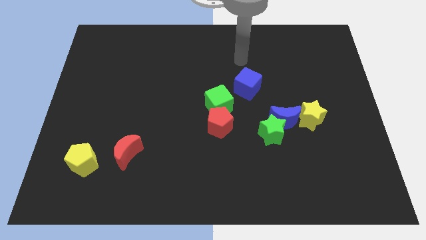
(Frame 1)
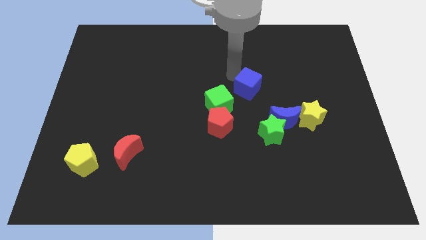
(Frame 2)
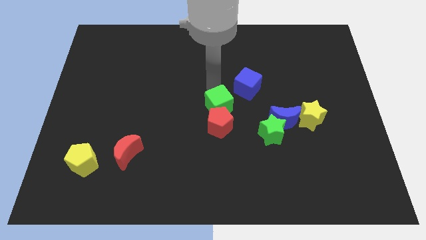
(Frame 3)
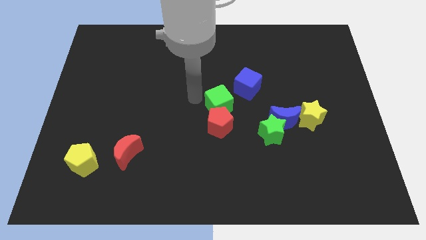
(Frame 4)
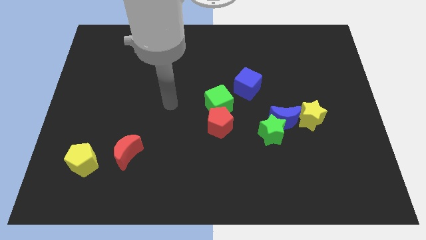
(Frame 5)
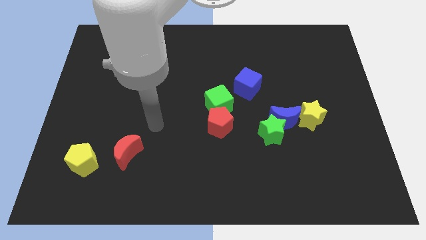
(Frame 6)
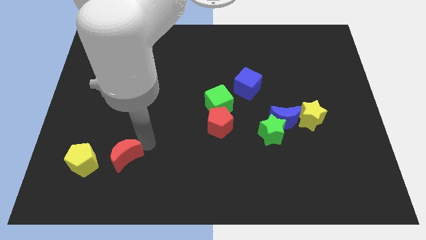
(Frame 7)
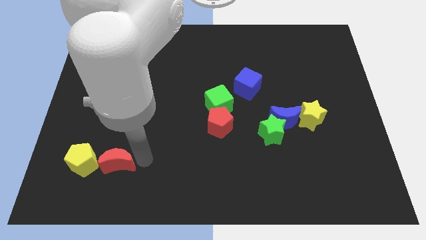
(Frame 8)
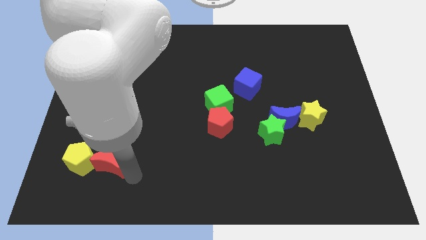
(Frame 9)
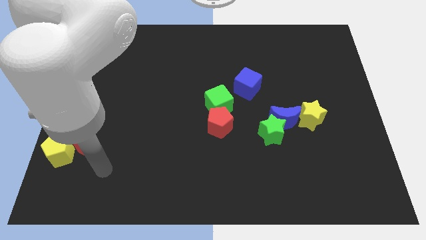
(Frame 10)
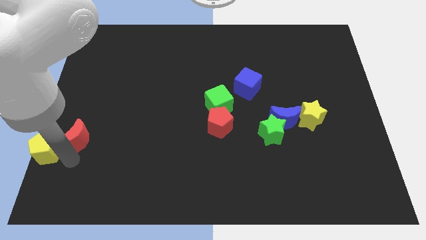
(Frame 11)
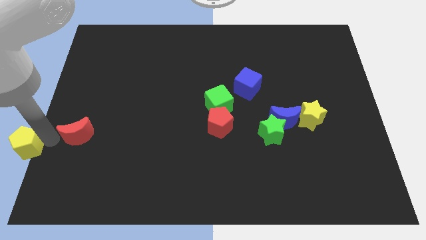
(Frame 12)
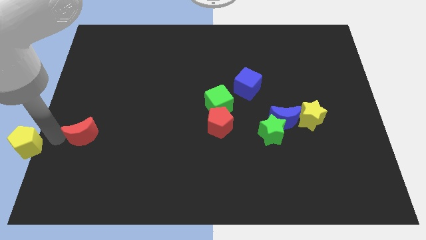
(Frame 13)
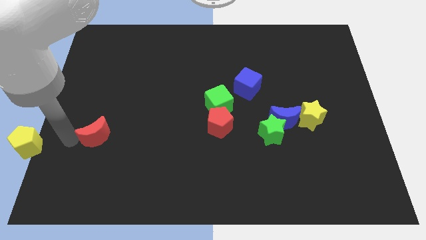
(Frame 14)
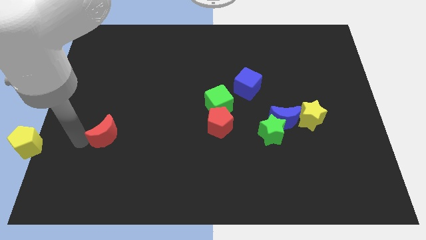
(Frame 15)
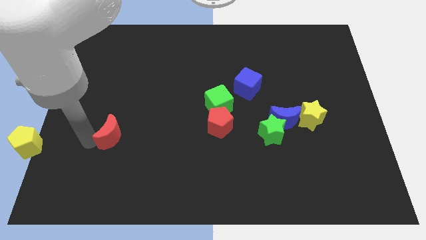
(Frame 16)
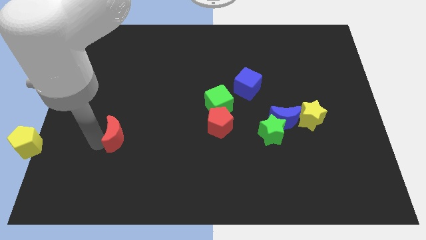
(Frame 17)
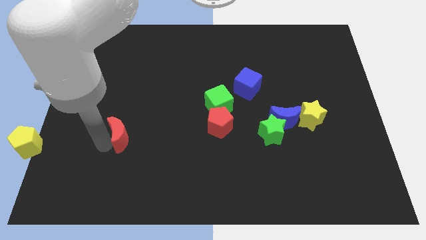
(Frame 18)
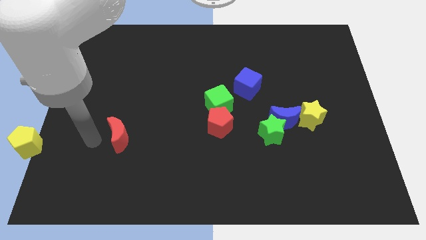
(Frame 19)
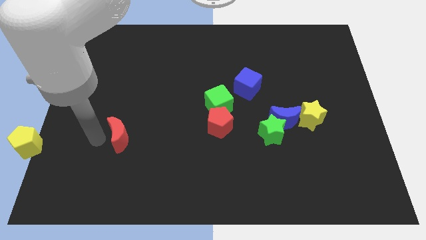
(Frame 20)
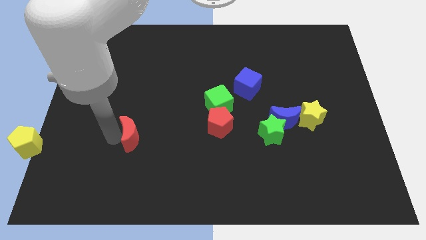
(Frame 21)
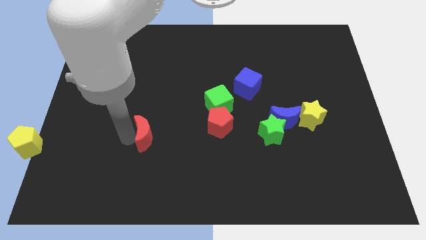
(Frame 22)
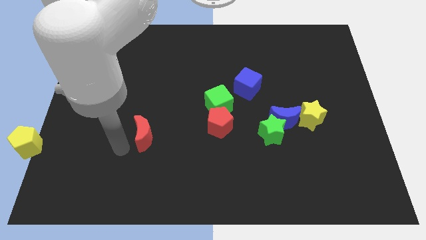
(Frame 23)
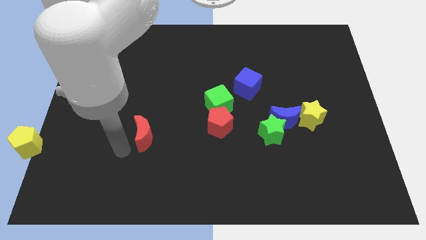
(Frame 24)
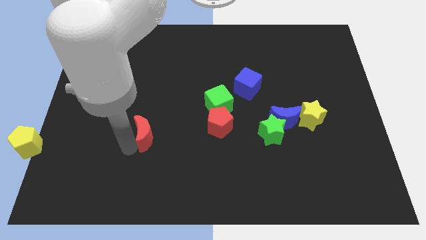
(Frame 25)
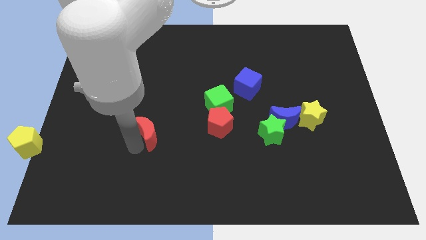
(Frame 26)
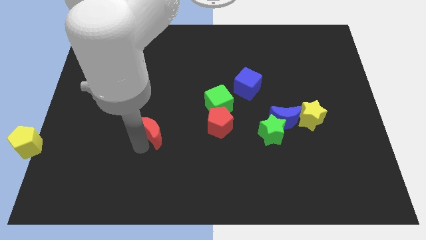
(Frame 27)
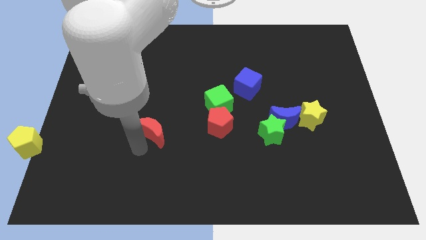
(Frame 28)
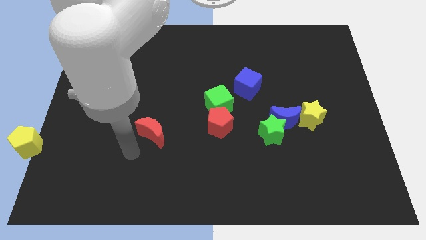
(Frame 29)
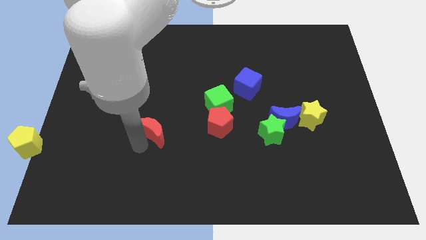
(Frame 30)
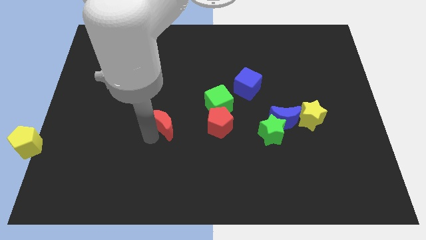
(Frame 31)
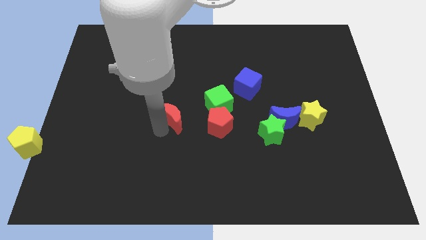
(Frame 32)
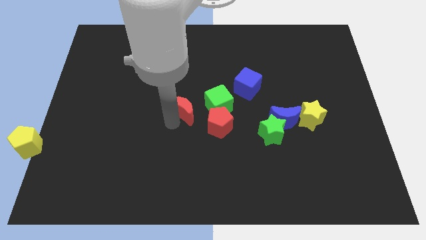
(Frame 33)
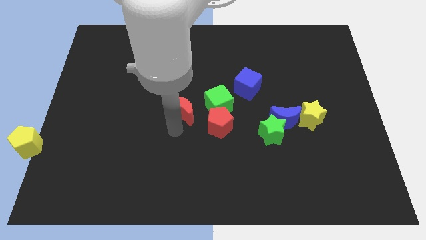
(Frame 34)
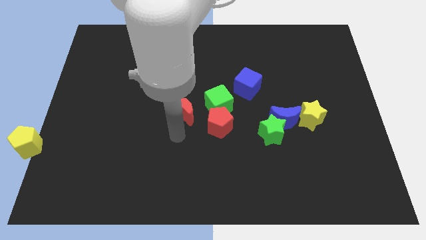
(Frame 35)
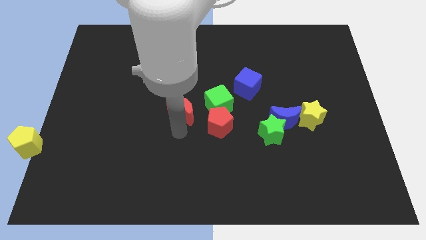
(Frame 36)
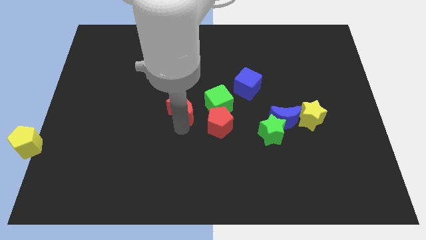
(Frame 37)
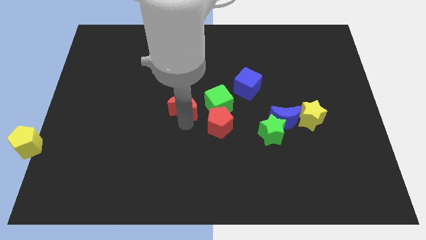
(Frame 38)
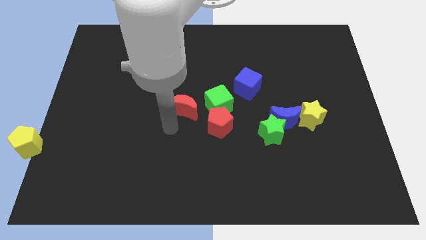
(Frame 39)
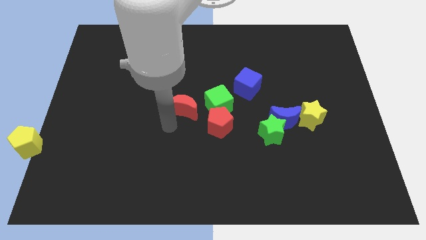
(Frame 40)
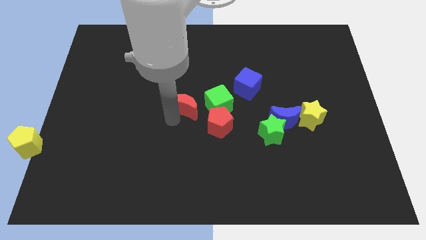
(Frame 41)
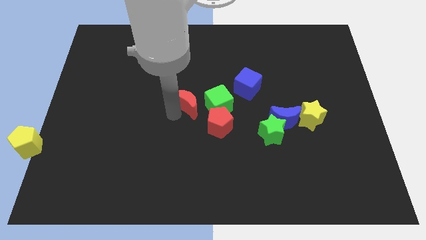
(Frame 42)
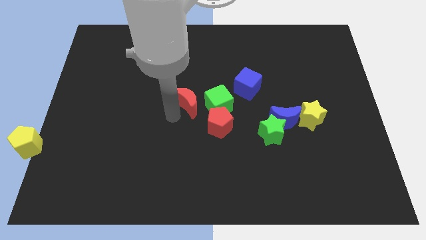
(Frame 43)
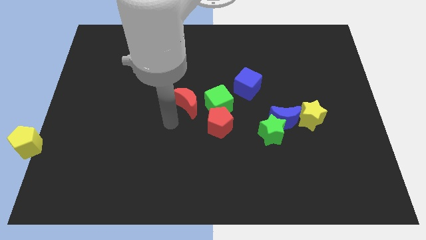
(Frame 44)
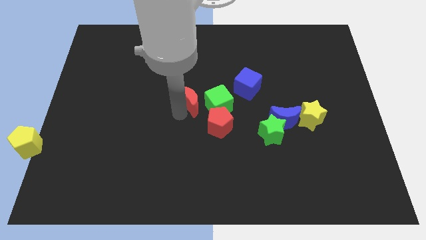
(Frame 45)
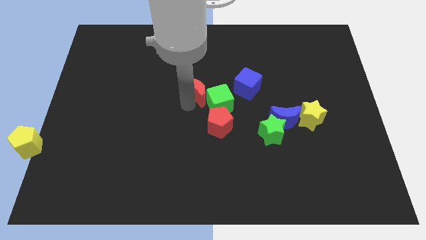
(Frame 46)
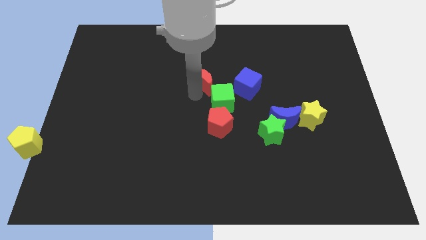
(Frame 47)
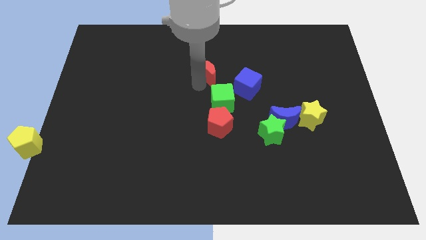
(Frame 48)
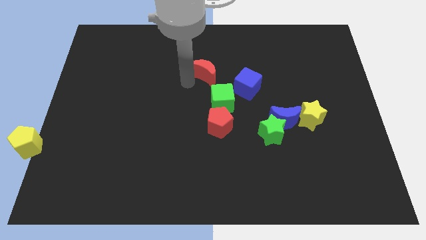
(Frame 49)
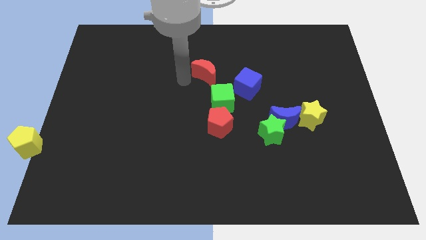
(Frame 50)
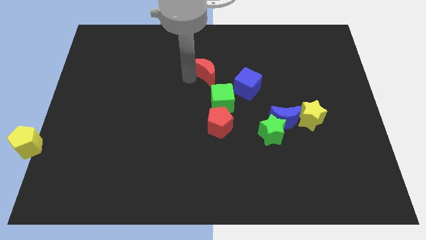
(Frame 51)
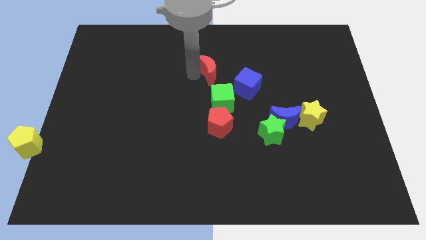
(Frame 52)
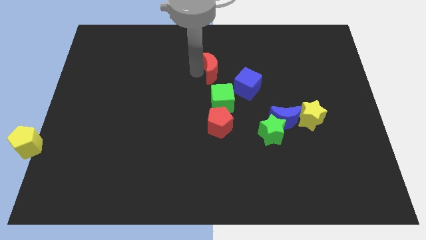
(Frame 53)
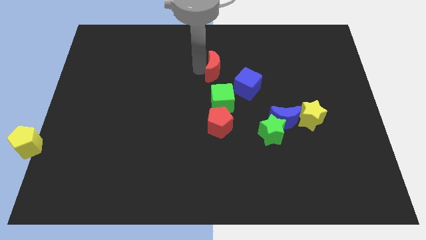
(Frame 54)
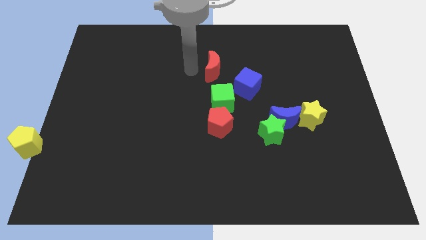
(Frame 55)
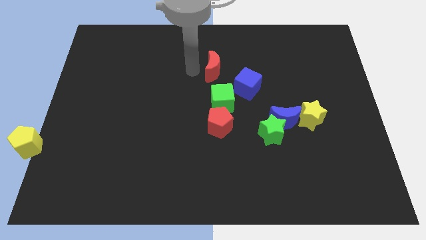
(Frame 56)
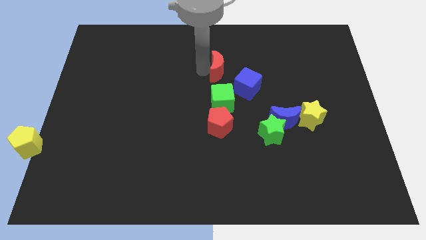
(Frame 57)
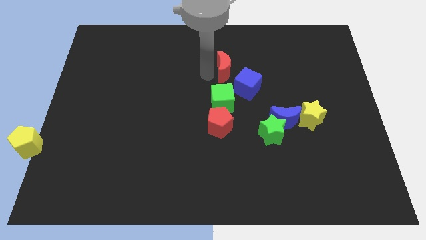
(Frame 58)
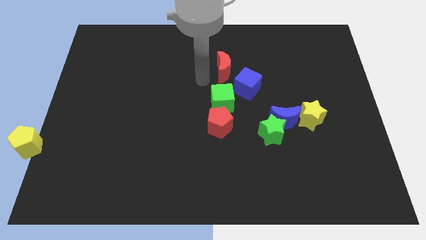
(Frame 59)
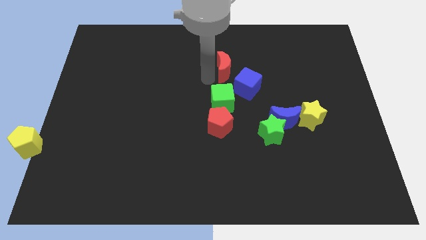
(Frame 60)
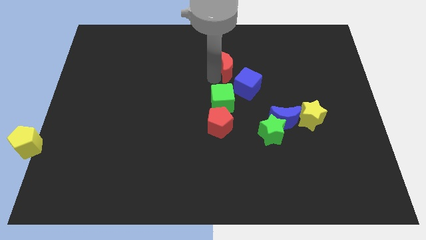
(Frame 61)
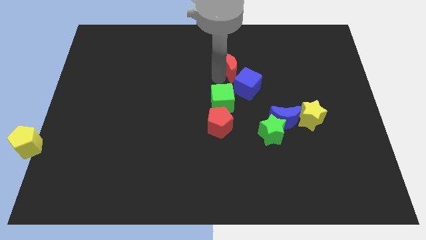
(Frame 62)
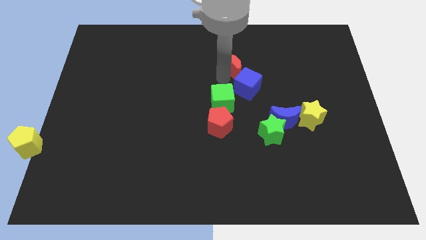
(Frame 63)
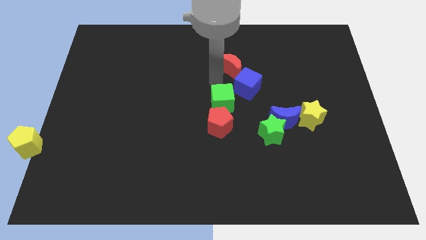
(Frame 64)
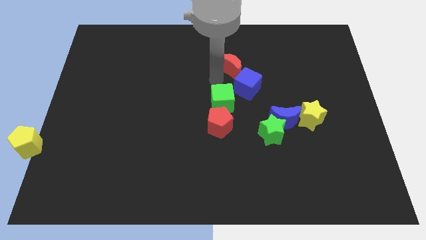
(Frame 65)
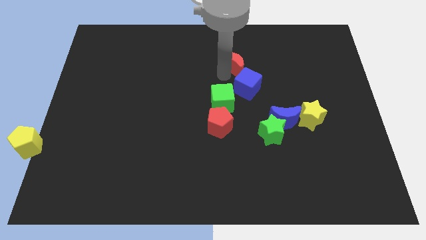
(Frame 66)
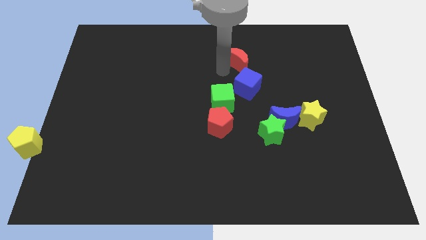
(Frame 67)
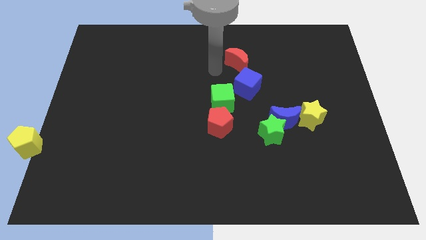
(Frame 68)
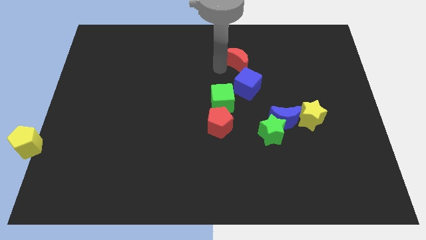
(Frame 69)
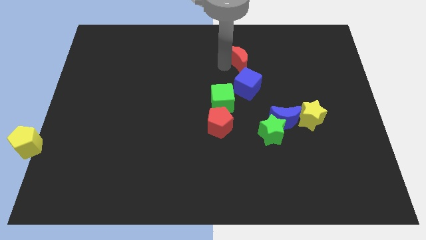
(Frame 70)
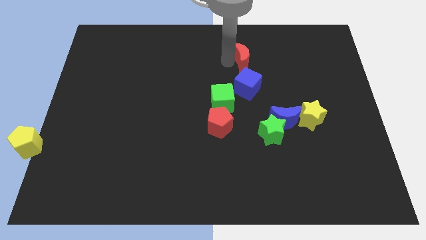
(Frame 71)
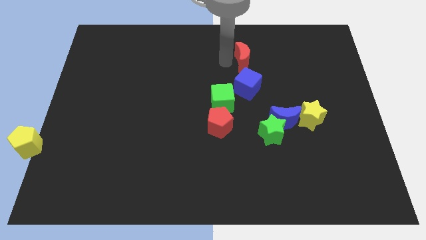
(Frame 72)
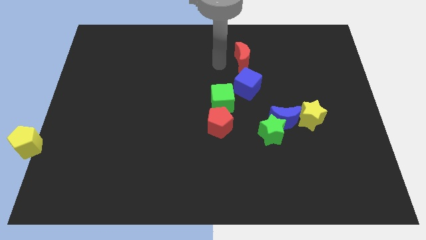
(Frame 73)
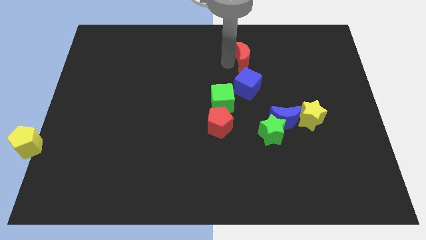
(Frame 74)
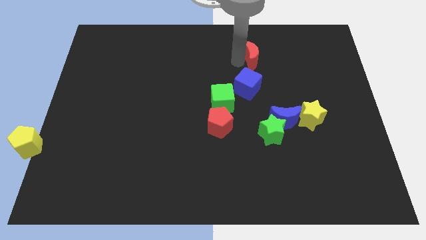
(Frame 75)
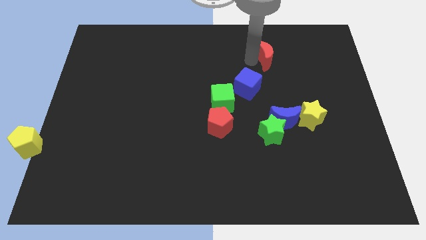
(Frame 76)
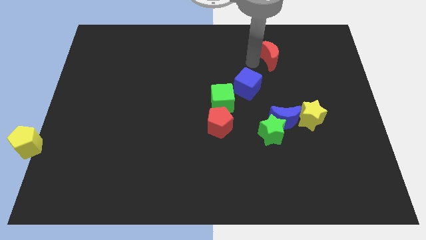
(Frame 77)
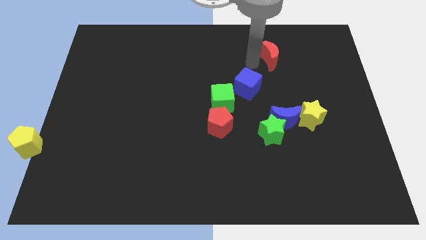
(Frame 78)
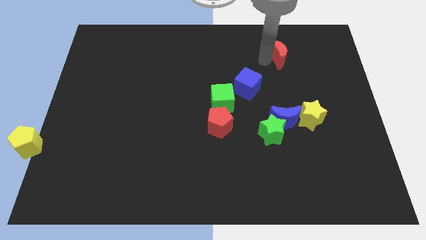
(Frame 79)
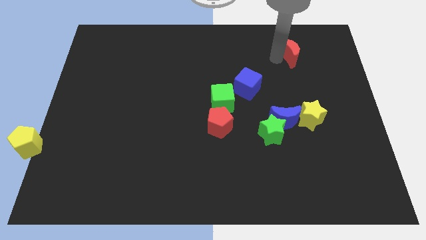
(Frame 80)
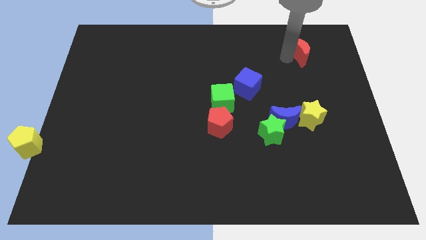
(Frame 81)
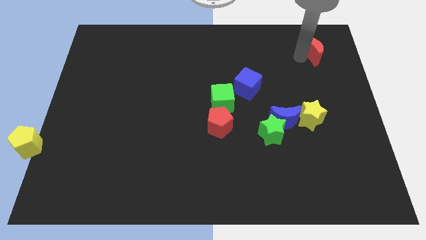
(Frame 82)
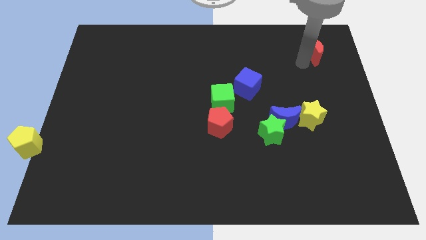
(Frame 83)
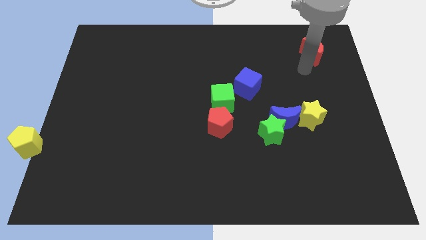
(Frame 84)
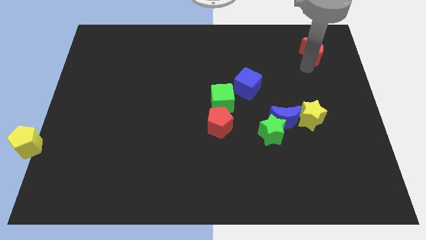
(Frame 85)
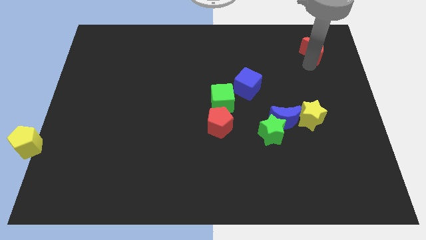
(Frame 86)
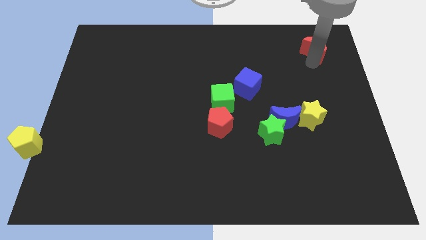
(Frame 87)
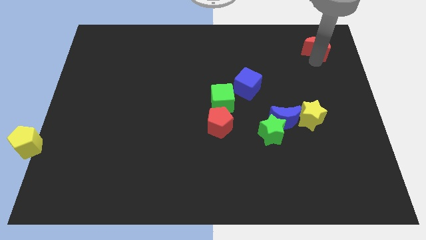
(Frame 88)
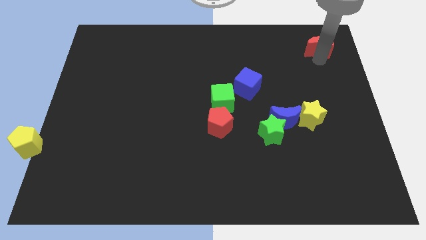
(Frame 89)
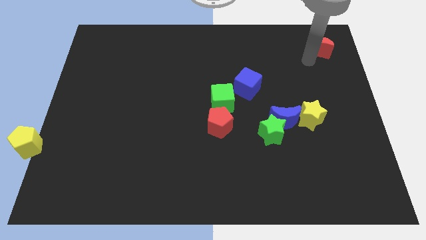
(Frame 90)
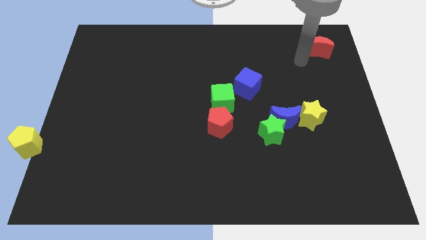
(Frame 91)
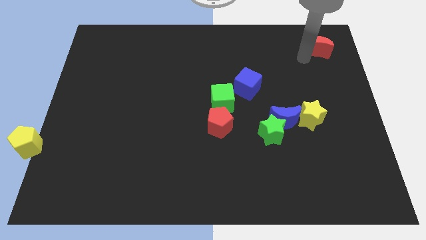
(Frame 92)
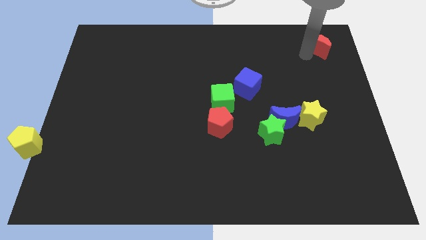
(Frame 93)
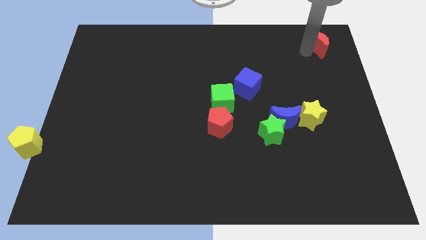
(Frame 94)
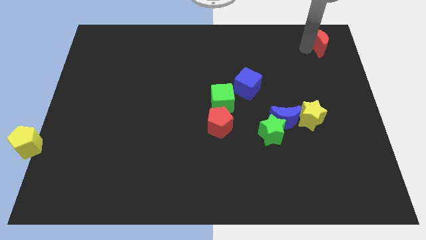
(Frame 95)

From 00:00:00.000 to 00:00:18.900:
move the red moon to the upper right corner
